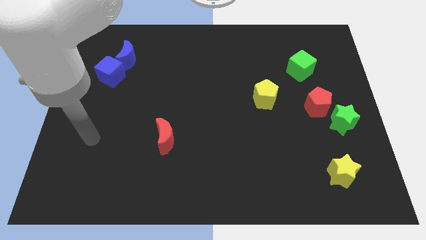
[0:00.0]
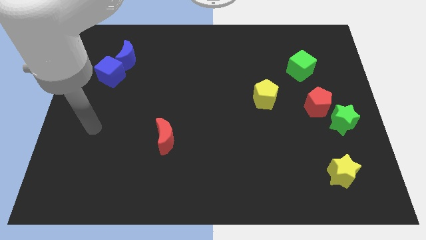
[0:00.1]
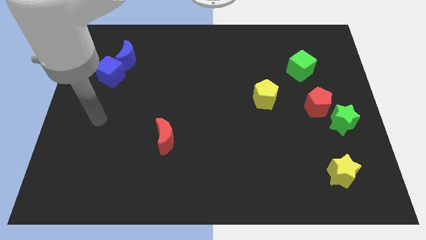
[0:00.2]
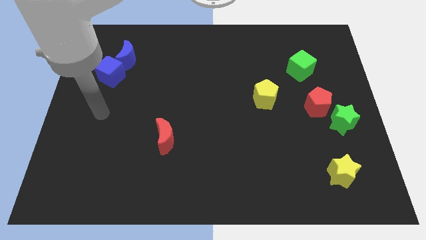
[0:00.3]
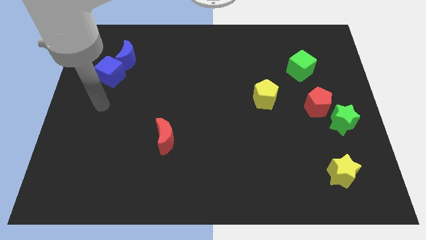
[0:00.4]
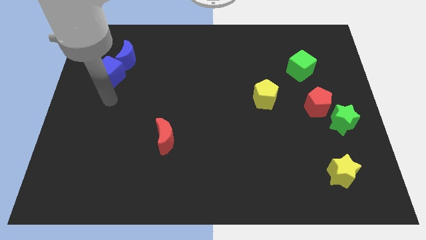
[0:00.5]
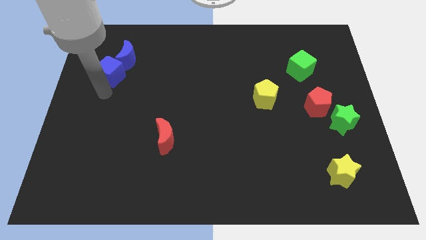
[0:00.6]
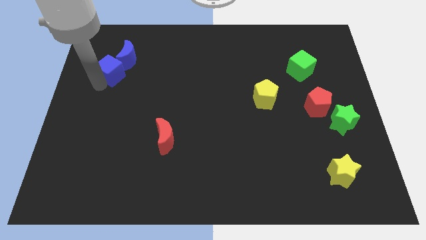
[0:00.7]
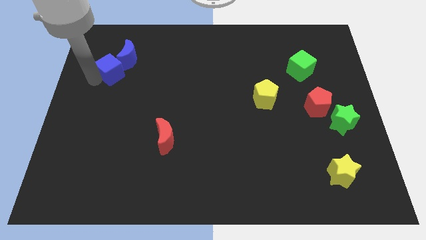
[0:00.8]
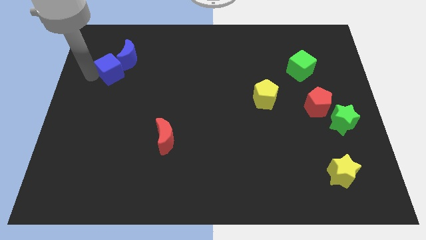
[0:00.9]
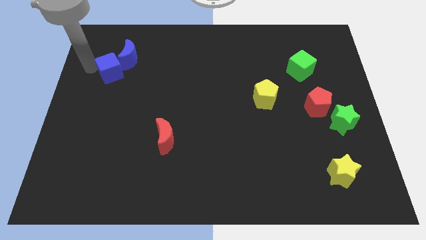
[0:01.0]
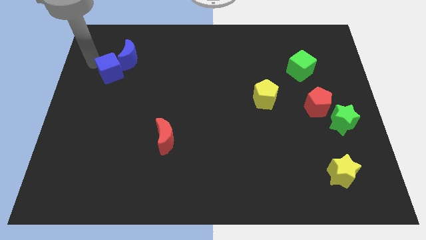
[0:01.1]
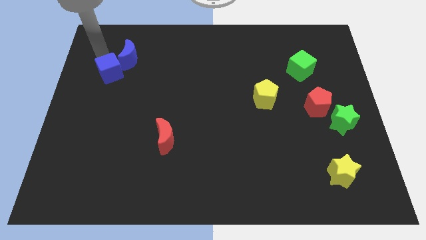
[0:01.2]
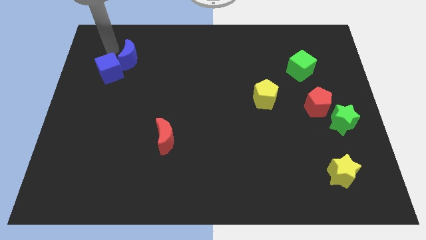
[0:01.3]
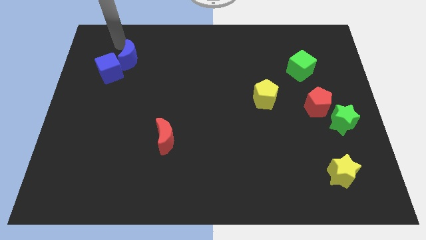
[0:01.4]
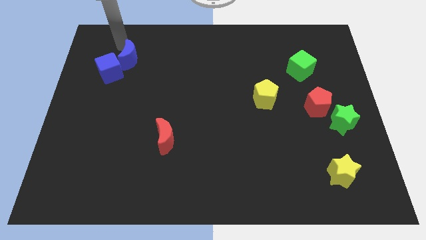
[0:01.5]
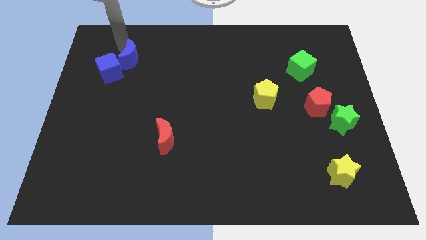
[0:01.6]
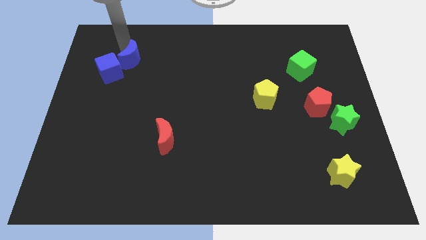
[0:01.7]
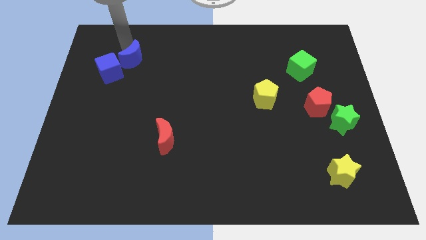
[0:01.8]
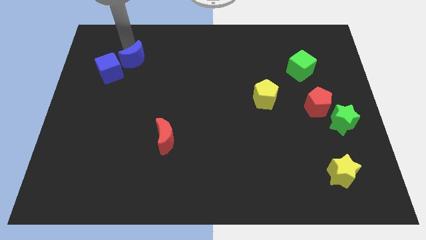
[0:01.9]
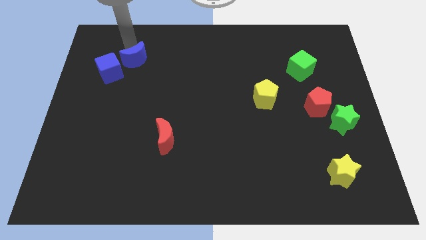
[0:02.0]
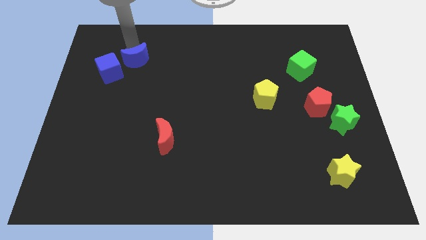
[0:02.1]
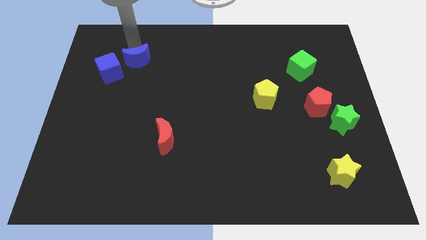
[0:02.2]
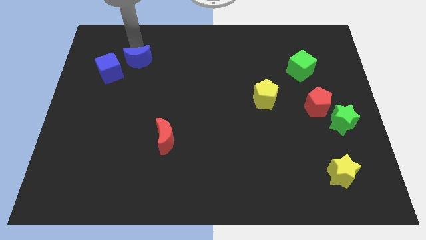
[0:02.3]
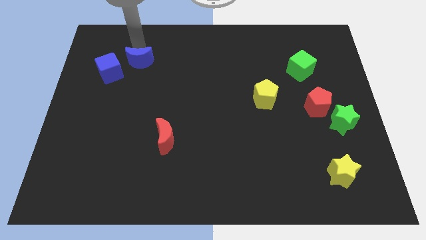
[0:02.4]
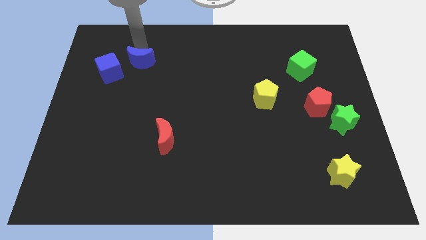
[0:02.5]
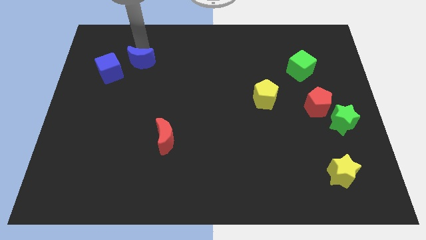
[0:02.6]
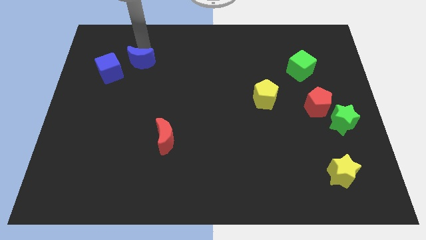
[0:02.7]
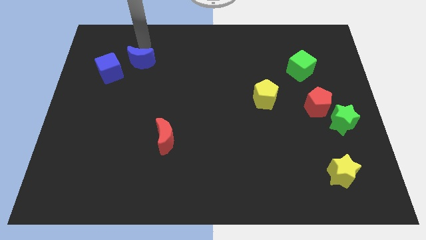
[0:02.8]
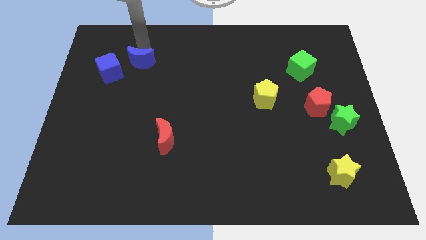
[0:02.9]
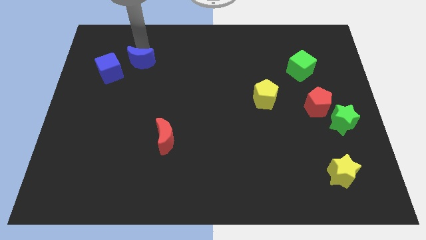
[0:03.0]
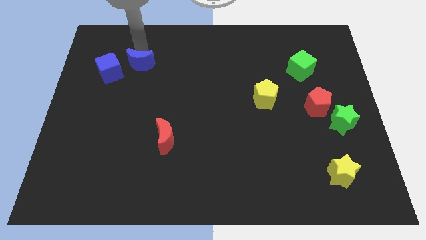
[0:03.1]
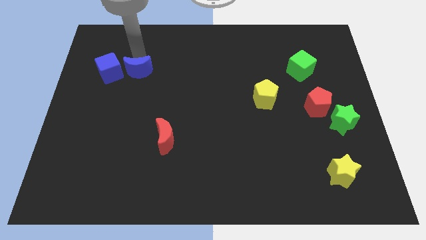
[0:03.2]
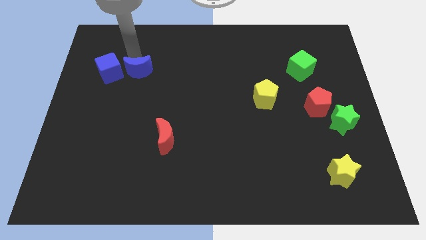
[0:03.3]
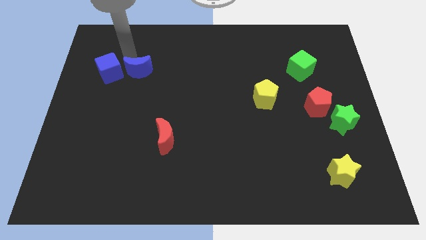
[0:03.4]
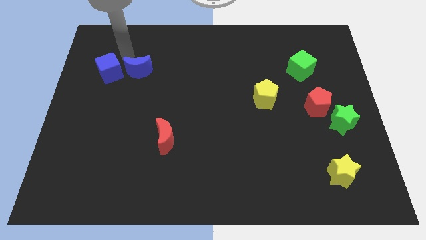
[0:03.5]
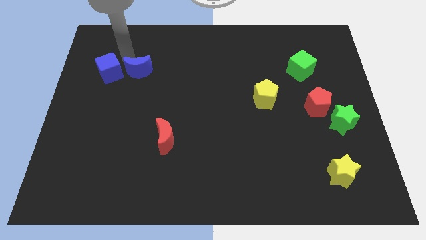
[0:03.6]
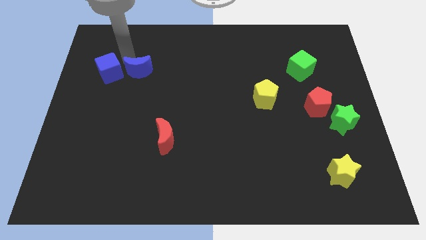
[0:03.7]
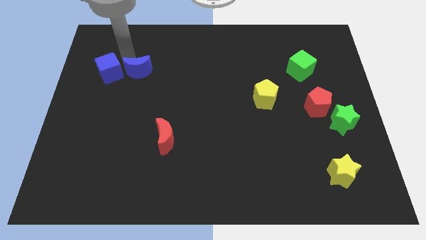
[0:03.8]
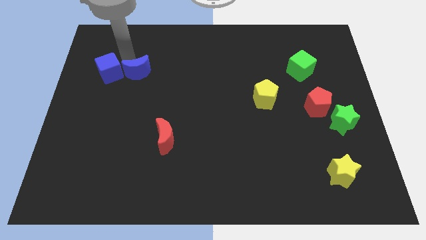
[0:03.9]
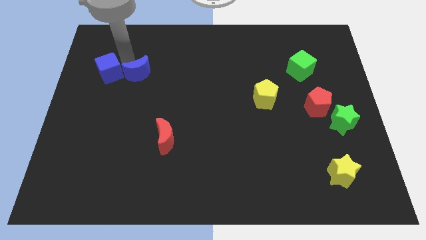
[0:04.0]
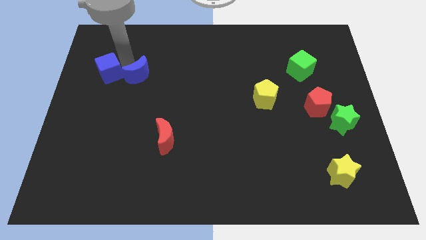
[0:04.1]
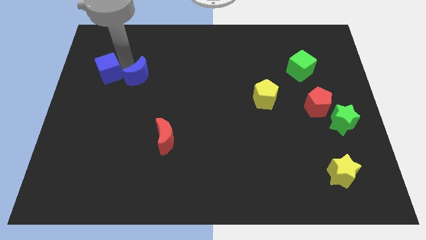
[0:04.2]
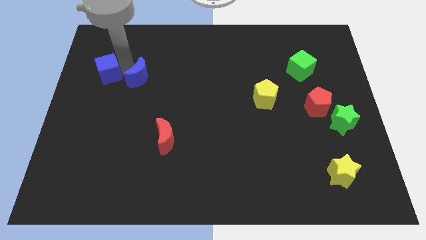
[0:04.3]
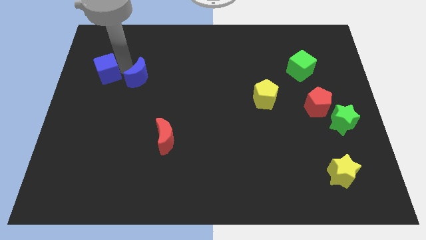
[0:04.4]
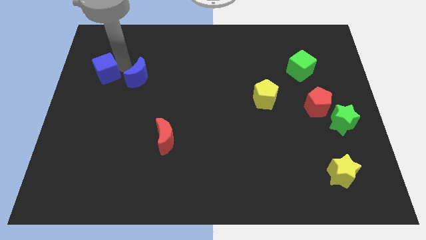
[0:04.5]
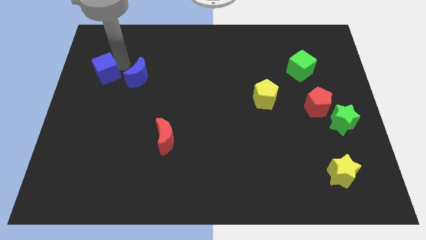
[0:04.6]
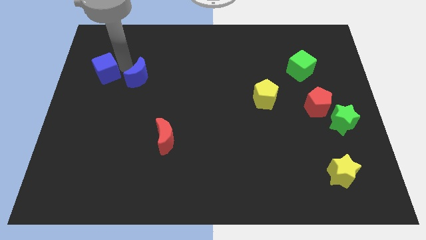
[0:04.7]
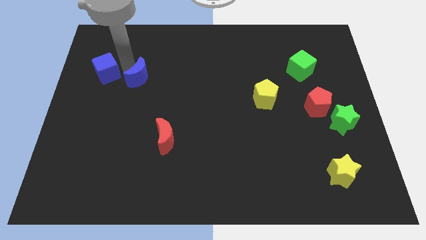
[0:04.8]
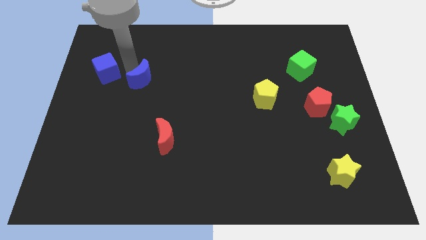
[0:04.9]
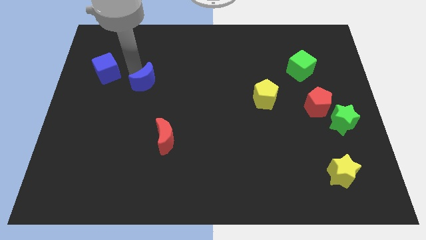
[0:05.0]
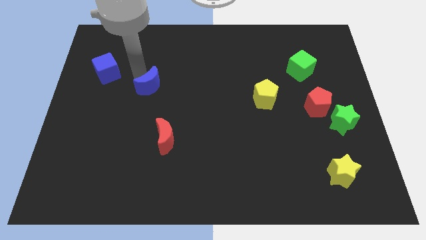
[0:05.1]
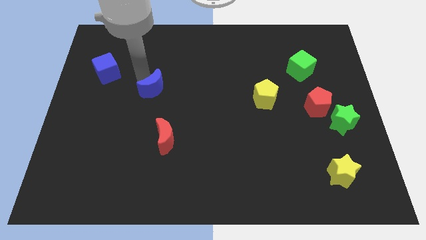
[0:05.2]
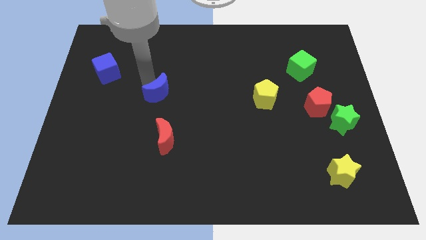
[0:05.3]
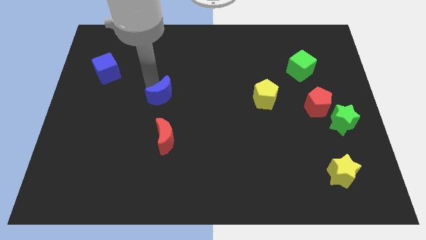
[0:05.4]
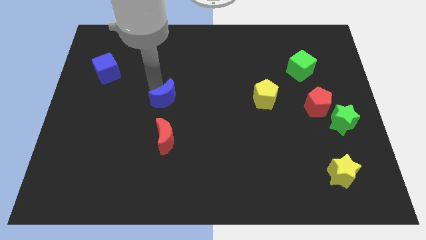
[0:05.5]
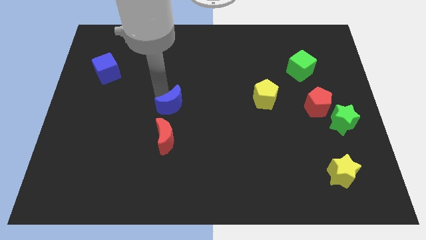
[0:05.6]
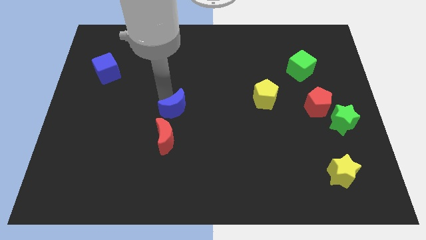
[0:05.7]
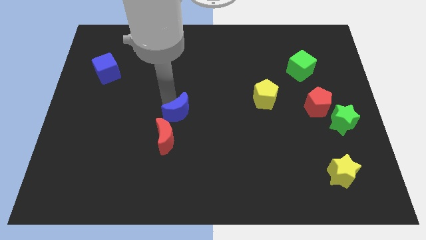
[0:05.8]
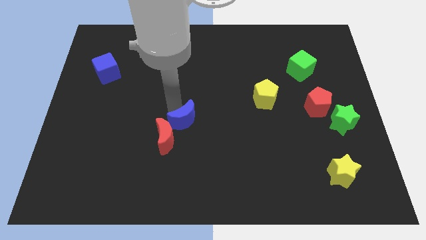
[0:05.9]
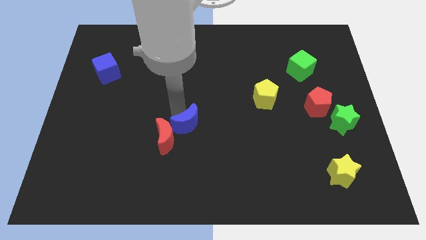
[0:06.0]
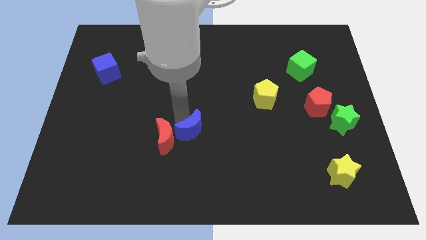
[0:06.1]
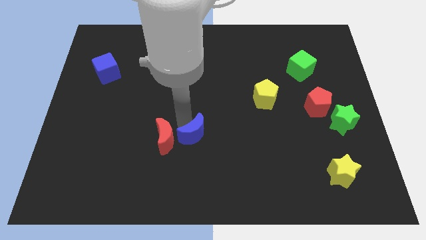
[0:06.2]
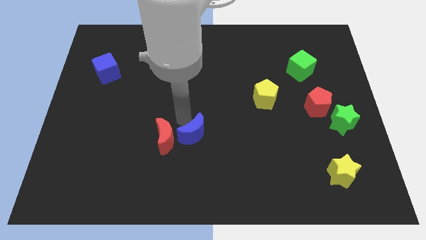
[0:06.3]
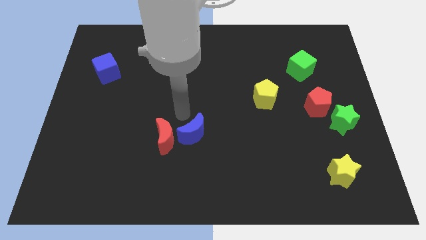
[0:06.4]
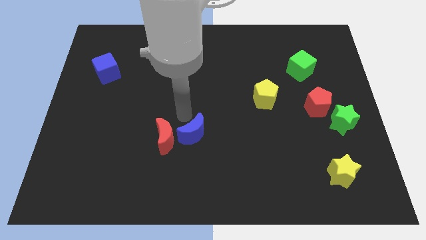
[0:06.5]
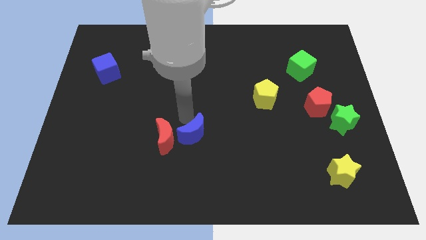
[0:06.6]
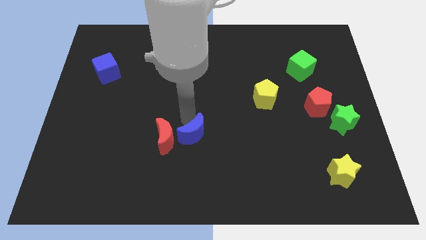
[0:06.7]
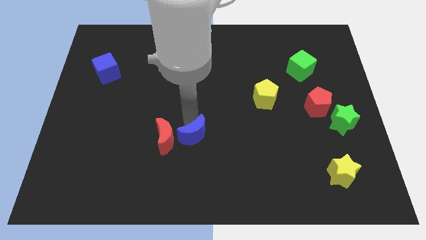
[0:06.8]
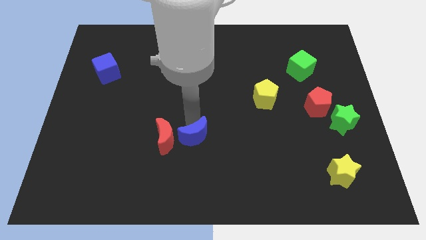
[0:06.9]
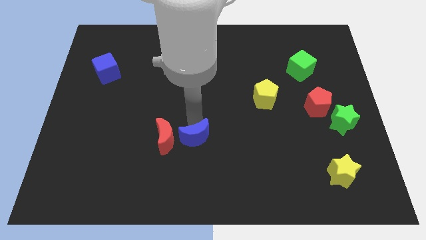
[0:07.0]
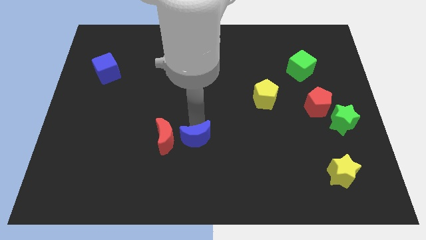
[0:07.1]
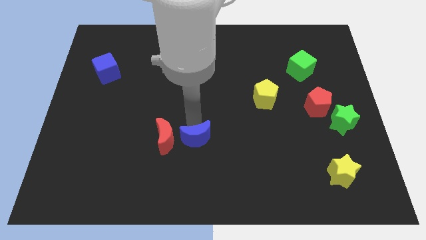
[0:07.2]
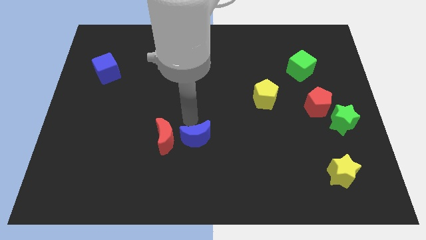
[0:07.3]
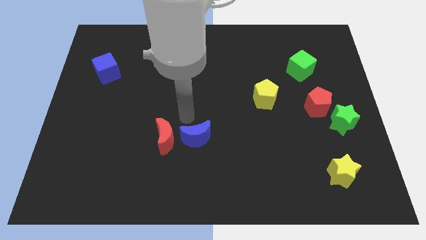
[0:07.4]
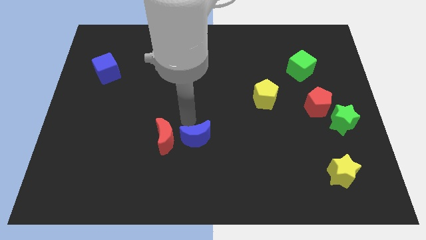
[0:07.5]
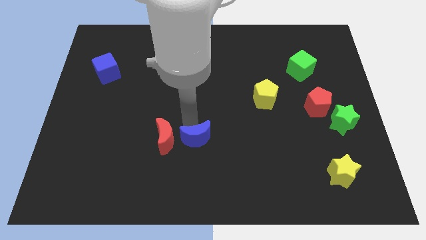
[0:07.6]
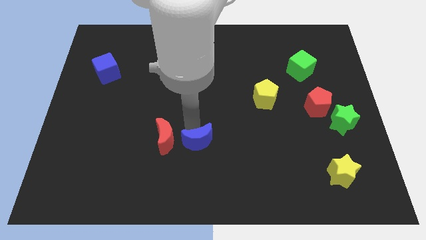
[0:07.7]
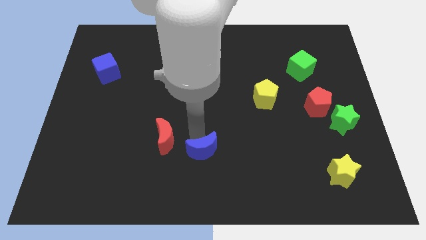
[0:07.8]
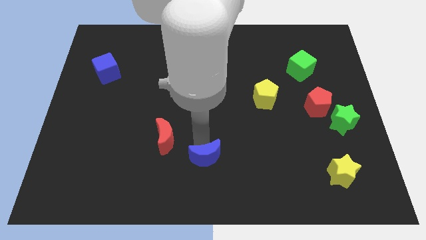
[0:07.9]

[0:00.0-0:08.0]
slide the blue moon to the bottom
